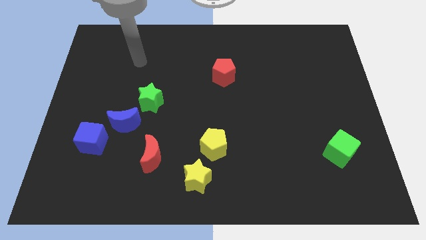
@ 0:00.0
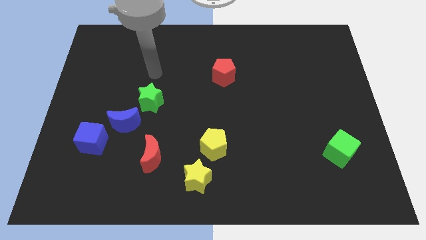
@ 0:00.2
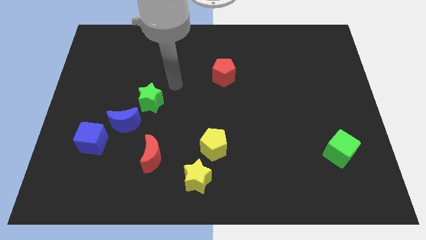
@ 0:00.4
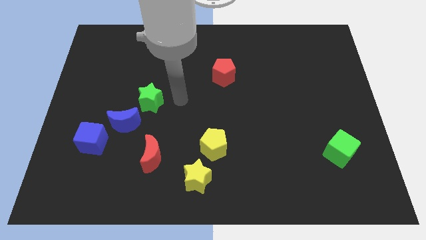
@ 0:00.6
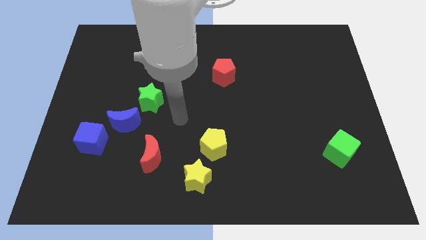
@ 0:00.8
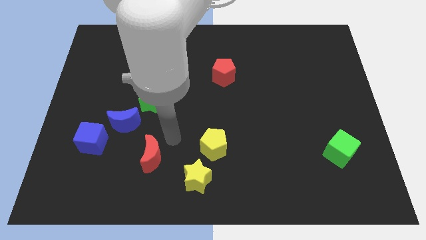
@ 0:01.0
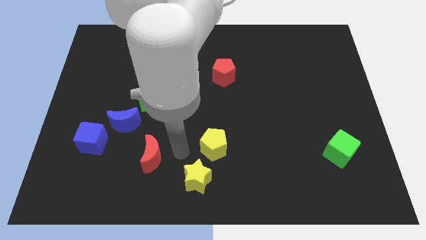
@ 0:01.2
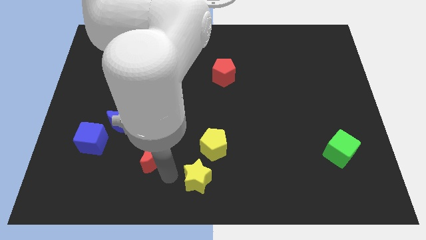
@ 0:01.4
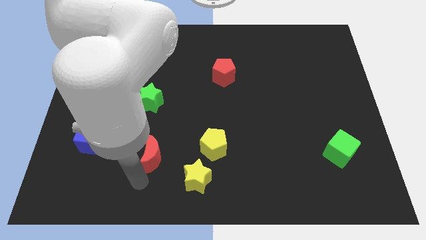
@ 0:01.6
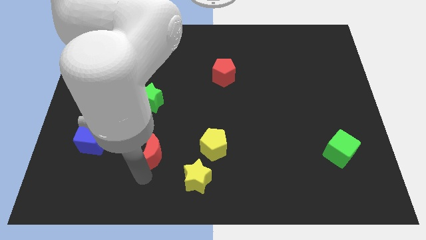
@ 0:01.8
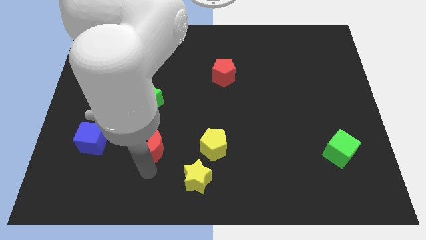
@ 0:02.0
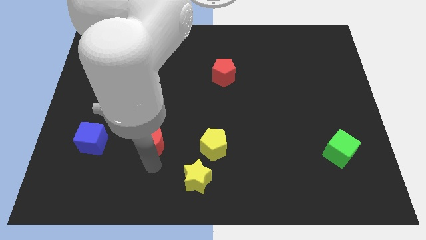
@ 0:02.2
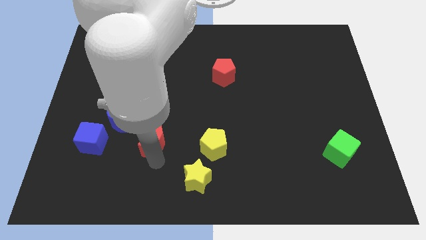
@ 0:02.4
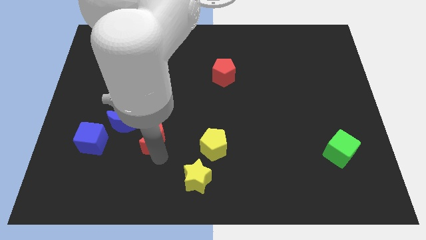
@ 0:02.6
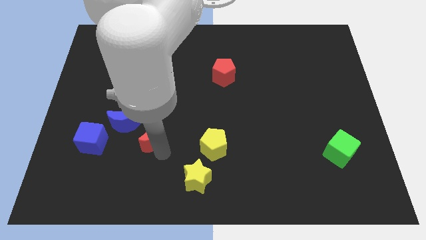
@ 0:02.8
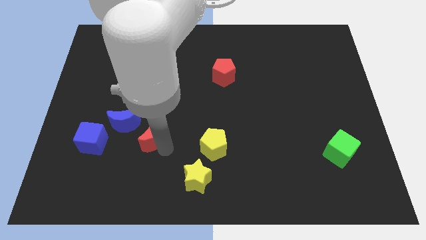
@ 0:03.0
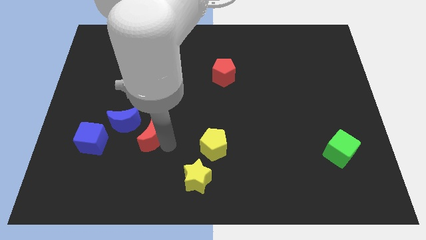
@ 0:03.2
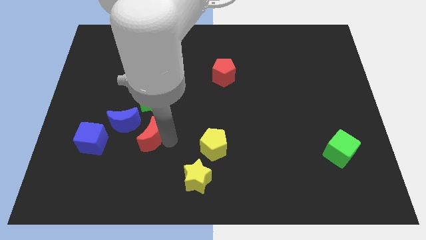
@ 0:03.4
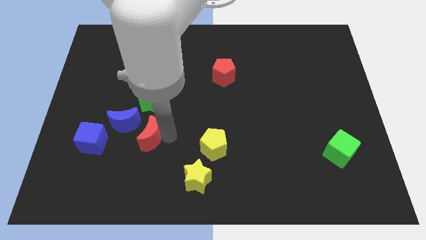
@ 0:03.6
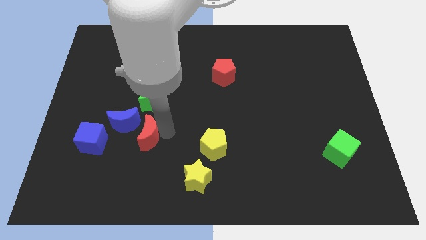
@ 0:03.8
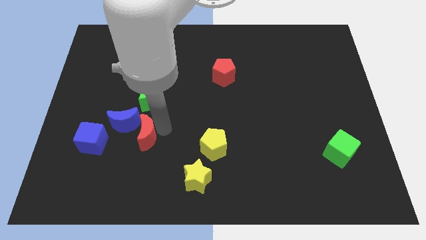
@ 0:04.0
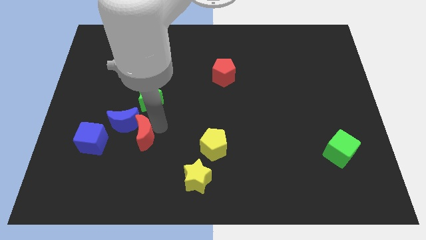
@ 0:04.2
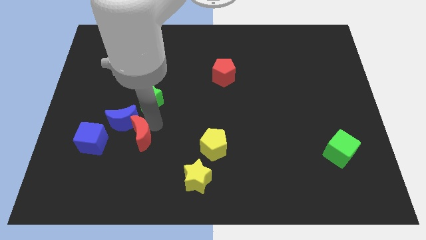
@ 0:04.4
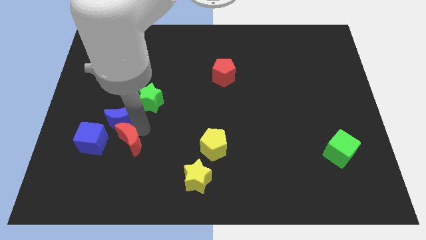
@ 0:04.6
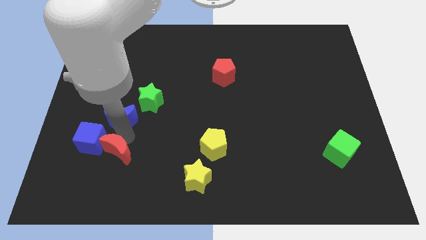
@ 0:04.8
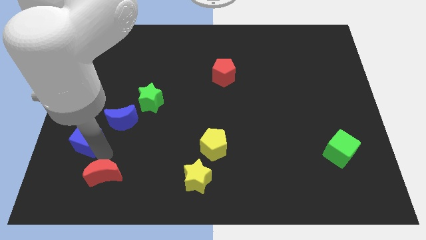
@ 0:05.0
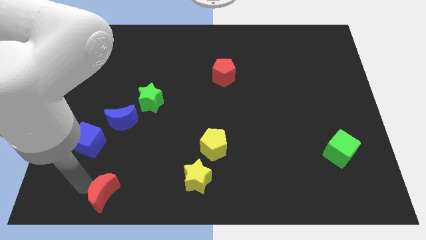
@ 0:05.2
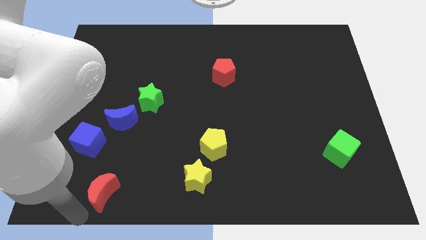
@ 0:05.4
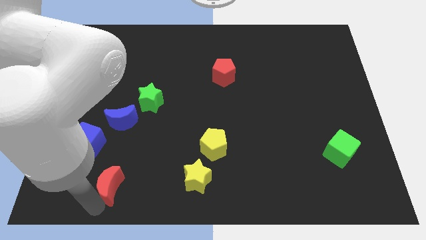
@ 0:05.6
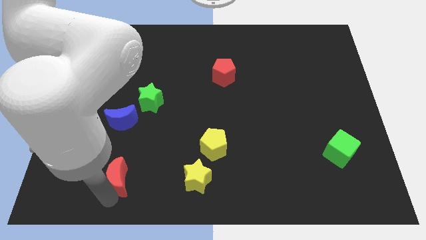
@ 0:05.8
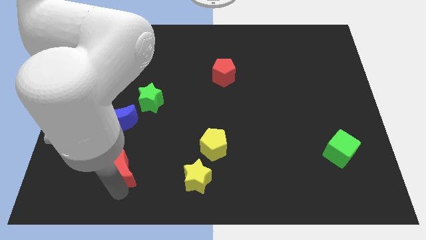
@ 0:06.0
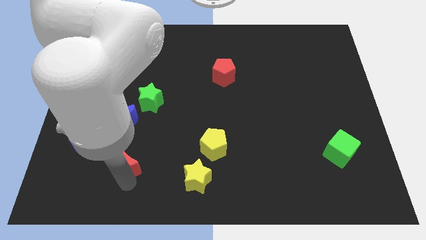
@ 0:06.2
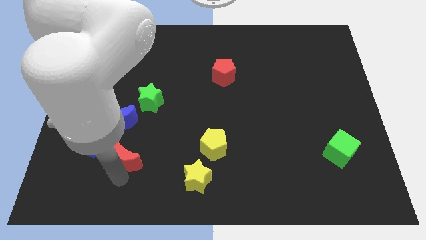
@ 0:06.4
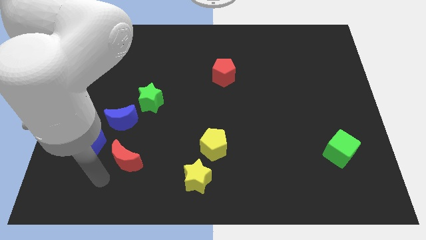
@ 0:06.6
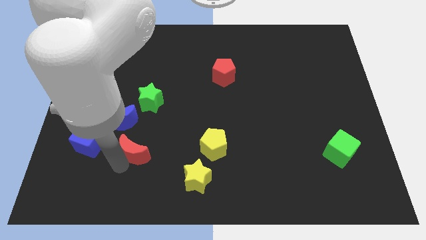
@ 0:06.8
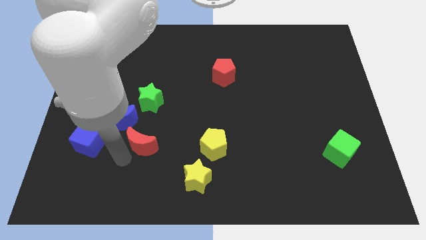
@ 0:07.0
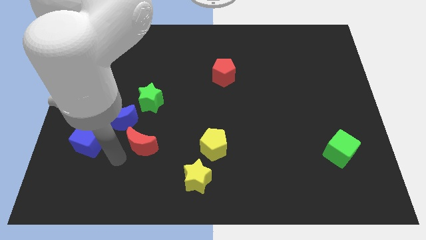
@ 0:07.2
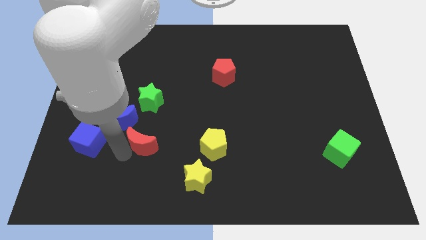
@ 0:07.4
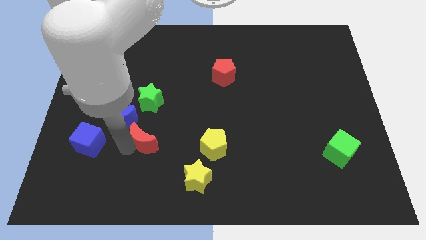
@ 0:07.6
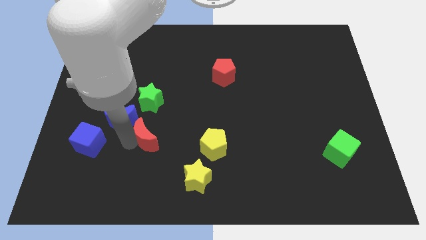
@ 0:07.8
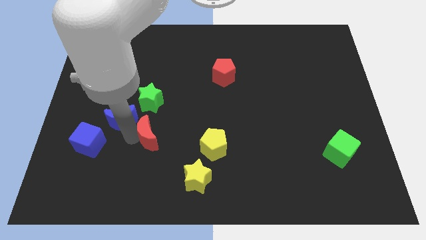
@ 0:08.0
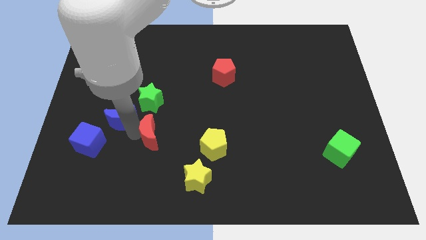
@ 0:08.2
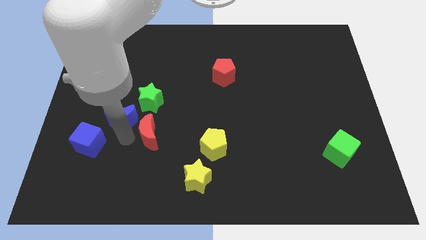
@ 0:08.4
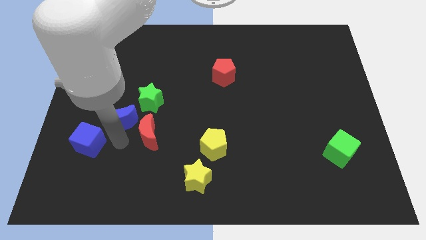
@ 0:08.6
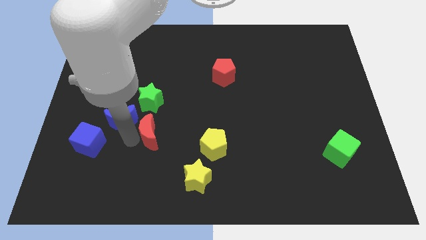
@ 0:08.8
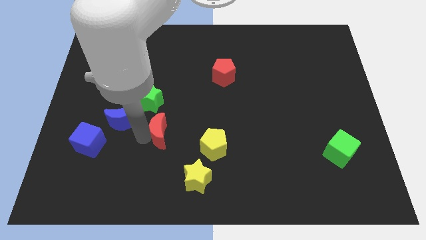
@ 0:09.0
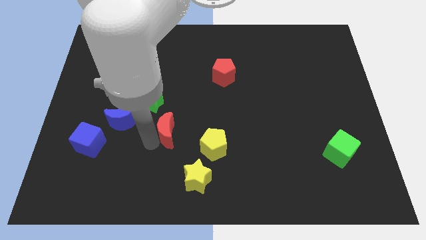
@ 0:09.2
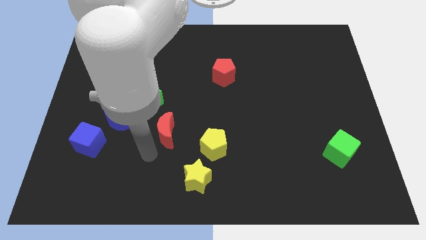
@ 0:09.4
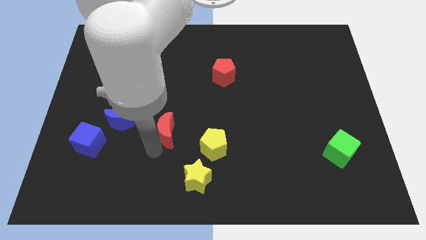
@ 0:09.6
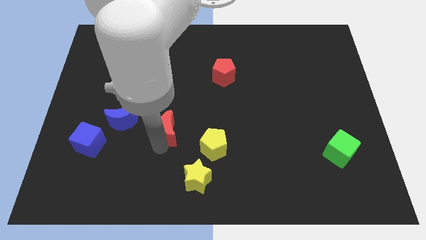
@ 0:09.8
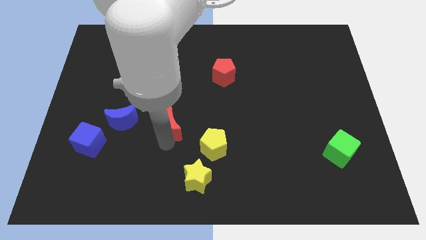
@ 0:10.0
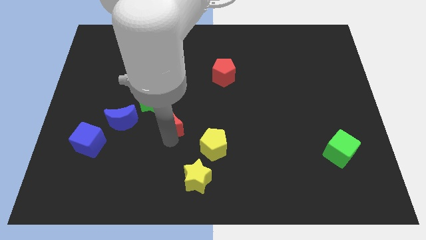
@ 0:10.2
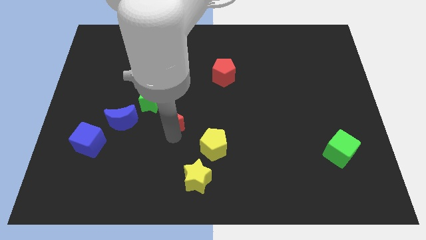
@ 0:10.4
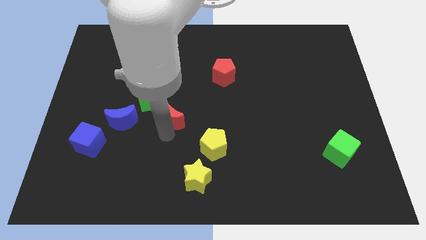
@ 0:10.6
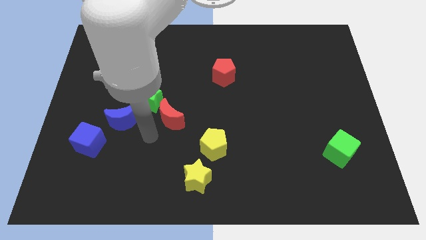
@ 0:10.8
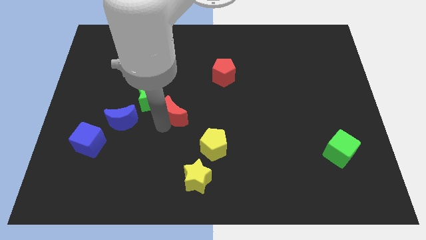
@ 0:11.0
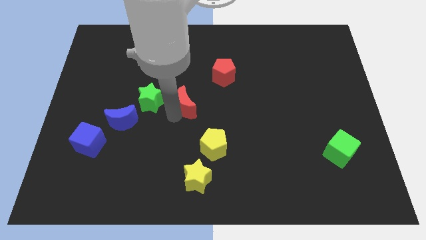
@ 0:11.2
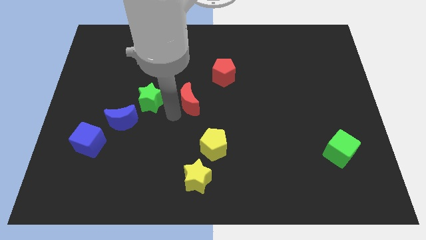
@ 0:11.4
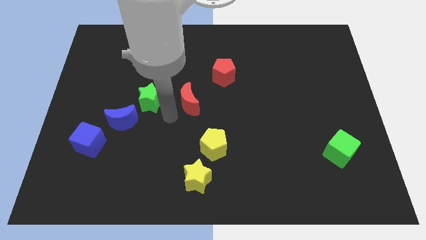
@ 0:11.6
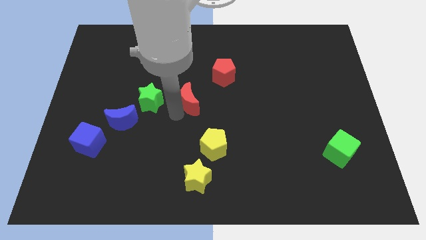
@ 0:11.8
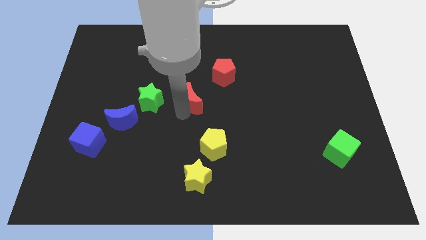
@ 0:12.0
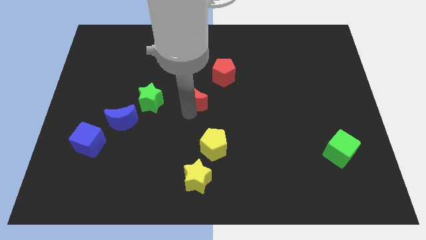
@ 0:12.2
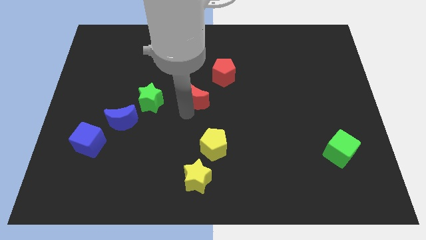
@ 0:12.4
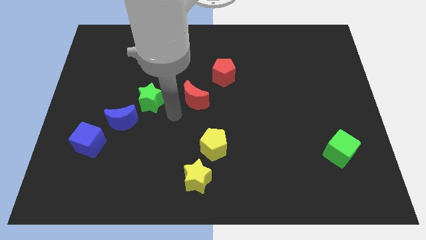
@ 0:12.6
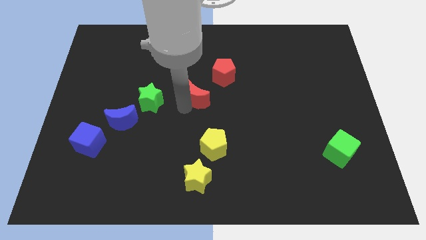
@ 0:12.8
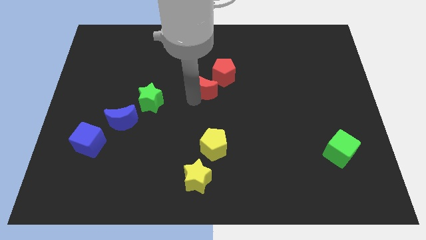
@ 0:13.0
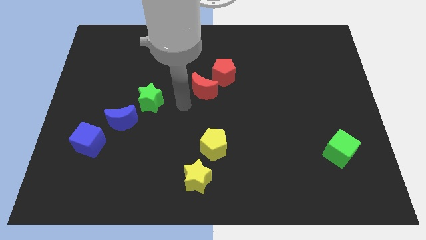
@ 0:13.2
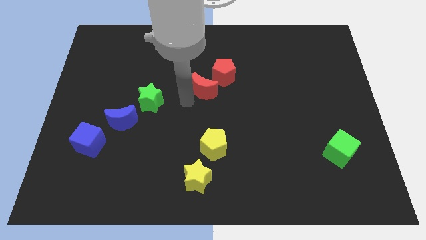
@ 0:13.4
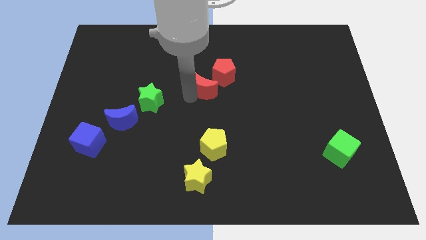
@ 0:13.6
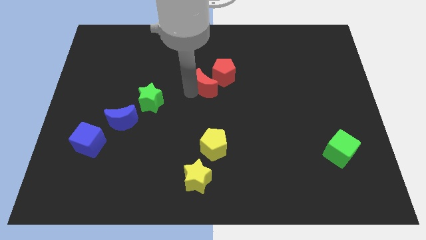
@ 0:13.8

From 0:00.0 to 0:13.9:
push the red moon close to the red pentagon
